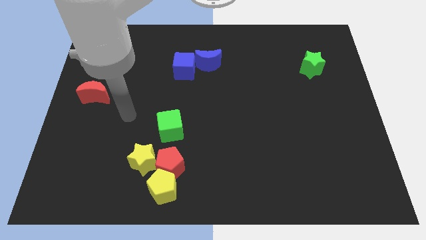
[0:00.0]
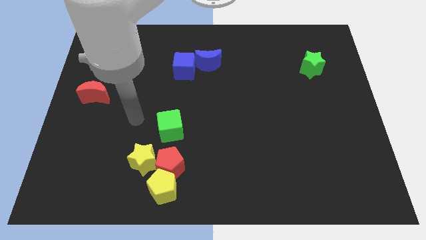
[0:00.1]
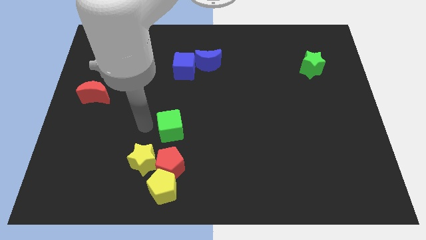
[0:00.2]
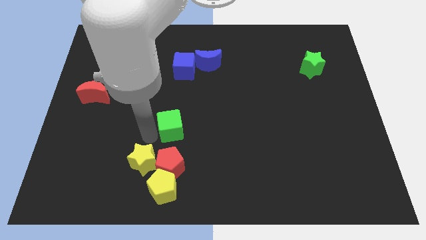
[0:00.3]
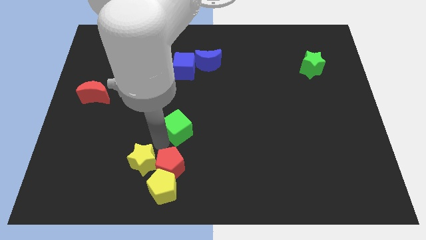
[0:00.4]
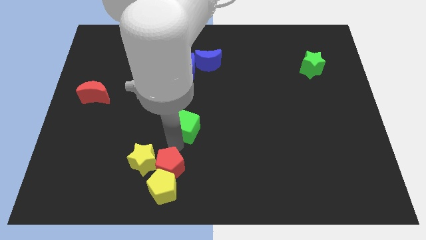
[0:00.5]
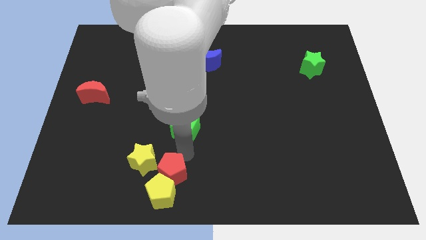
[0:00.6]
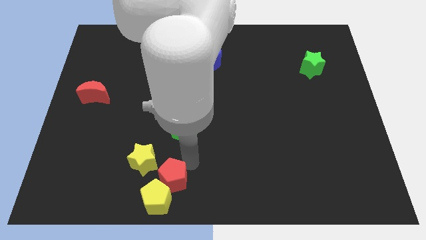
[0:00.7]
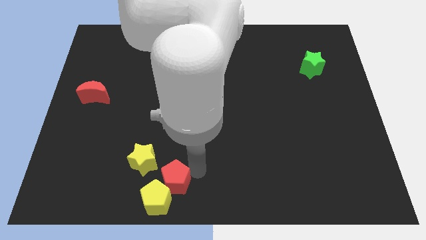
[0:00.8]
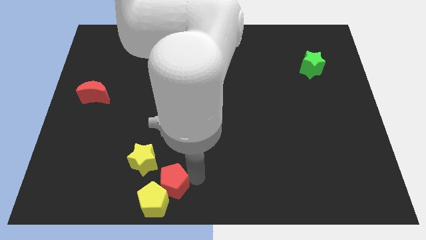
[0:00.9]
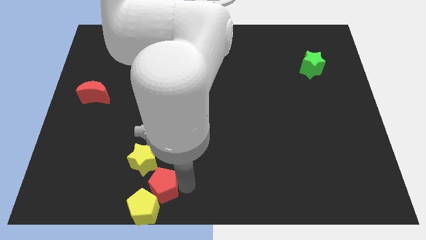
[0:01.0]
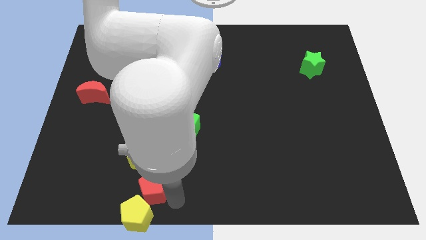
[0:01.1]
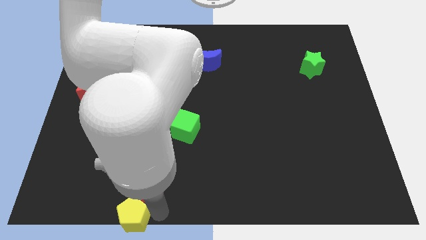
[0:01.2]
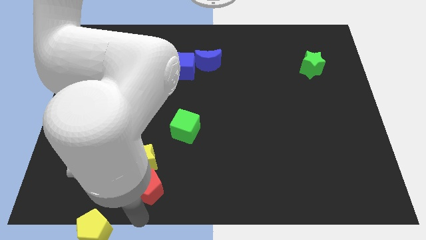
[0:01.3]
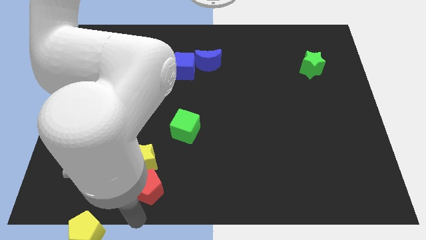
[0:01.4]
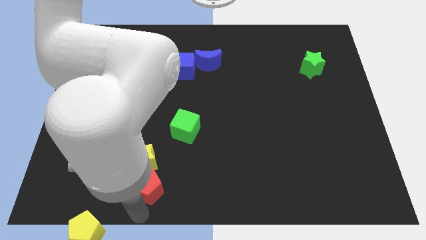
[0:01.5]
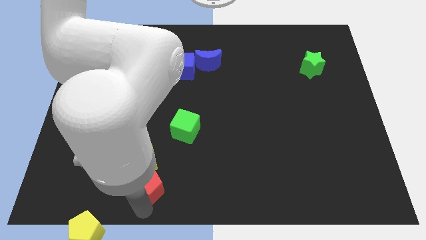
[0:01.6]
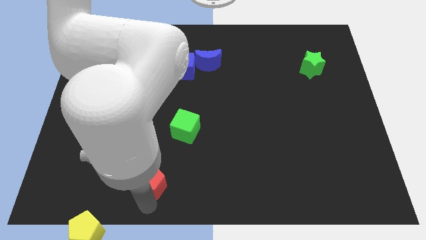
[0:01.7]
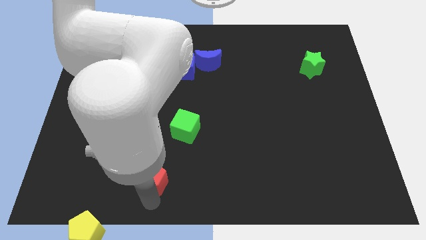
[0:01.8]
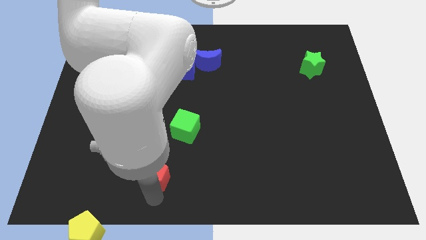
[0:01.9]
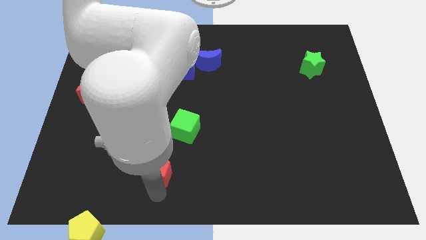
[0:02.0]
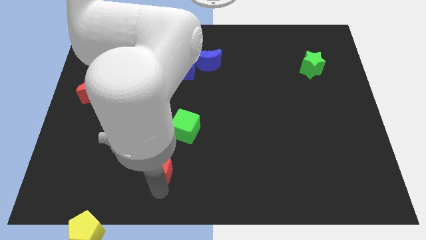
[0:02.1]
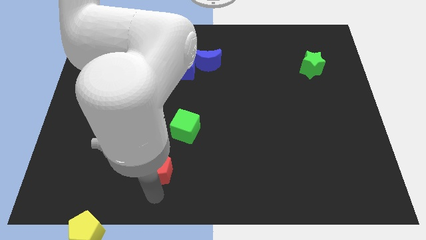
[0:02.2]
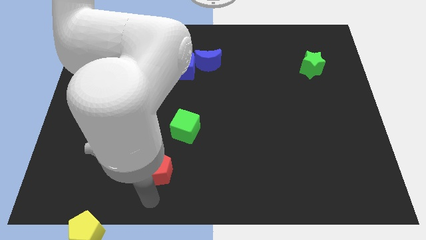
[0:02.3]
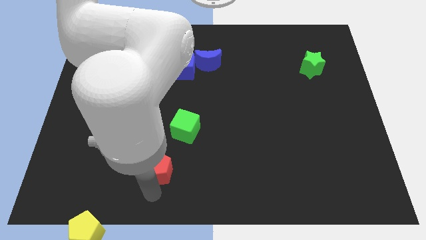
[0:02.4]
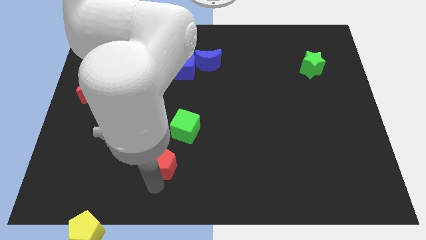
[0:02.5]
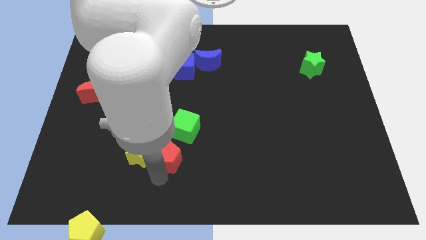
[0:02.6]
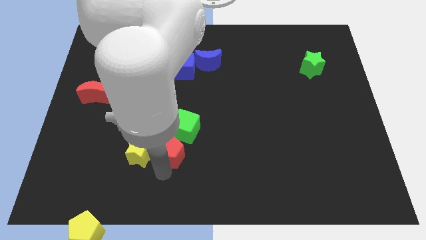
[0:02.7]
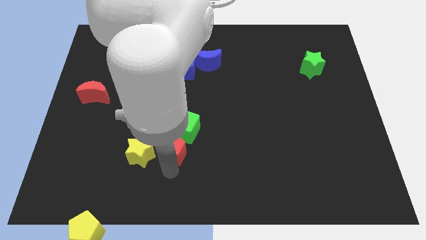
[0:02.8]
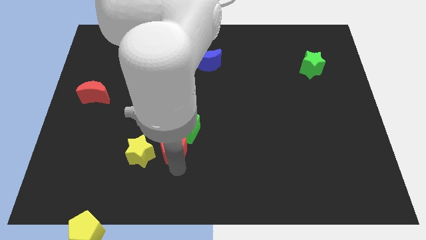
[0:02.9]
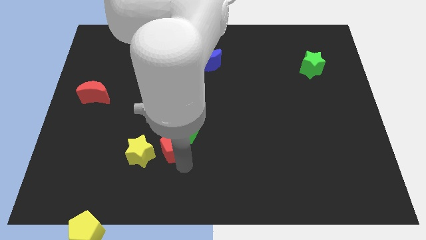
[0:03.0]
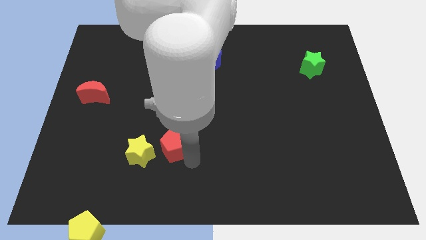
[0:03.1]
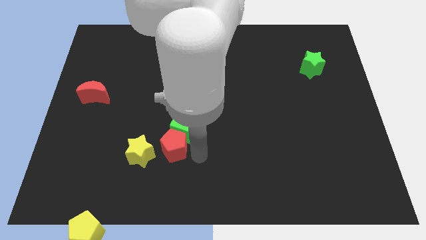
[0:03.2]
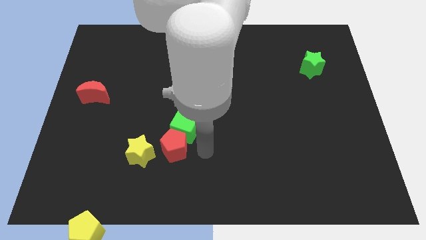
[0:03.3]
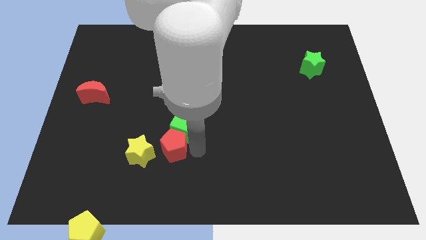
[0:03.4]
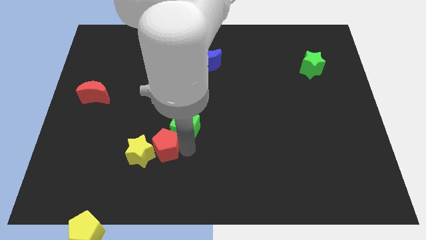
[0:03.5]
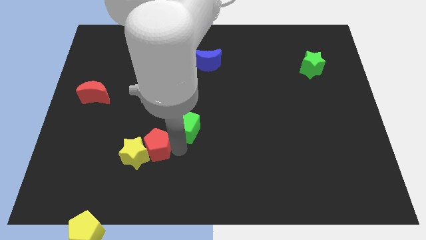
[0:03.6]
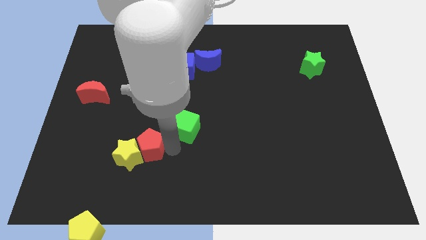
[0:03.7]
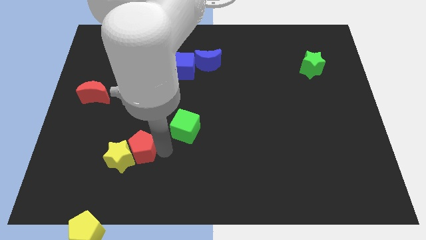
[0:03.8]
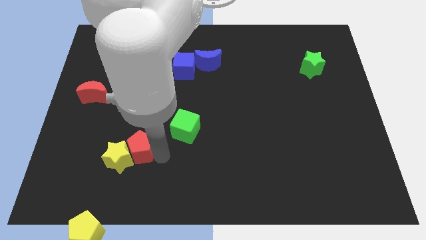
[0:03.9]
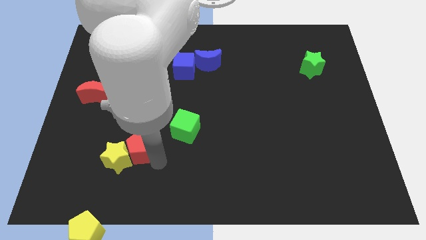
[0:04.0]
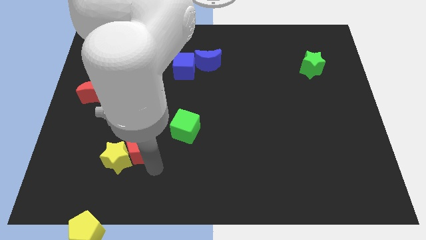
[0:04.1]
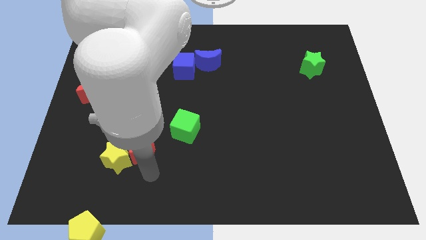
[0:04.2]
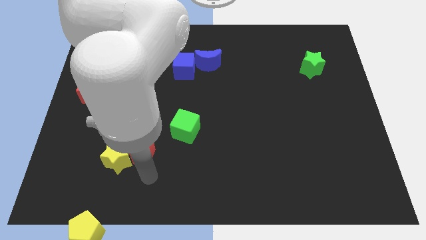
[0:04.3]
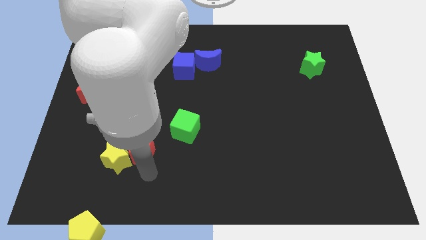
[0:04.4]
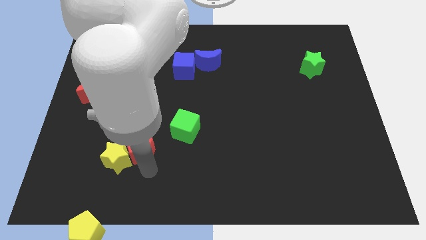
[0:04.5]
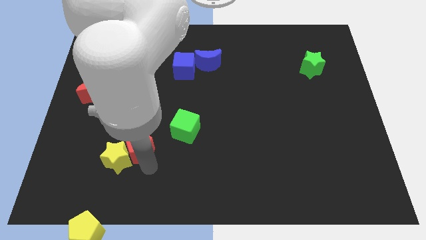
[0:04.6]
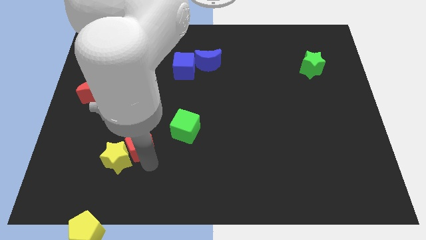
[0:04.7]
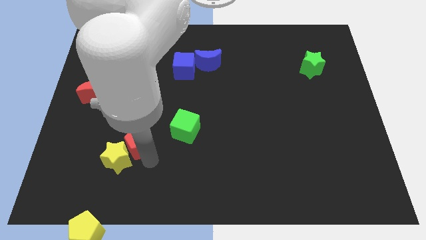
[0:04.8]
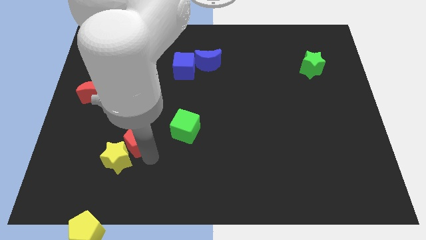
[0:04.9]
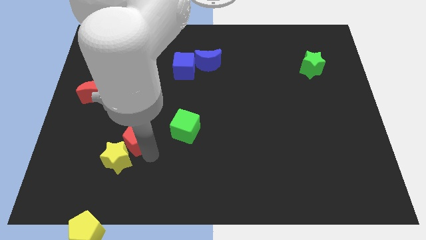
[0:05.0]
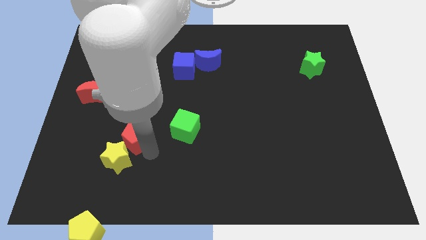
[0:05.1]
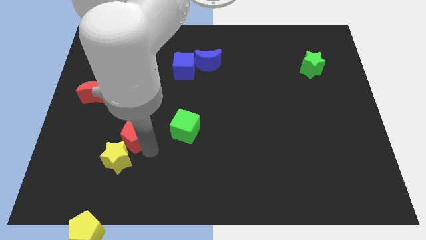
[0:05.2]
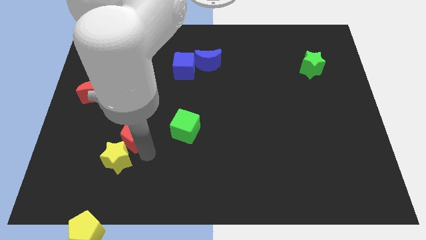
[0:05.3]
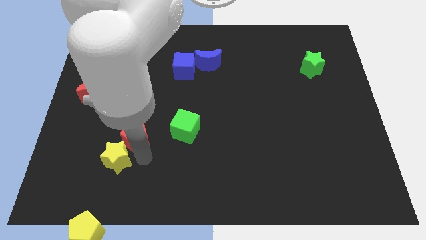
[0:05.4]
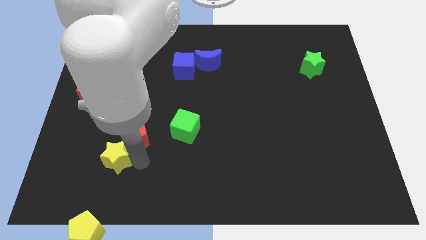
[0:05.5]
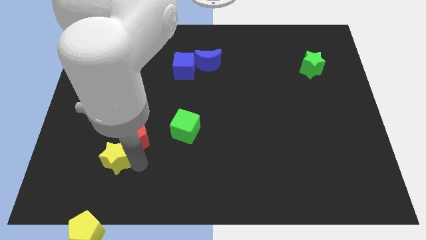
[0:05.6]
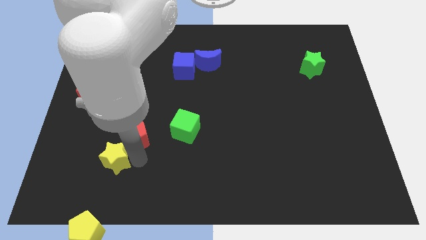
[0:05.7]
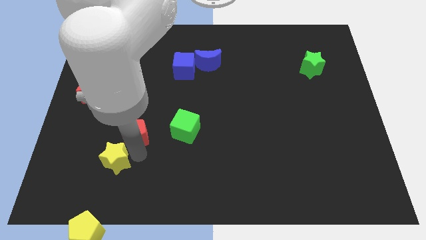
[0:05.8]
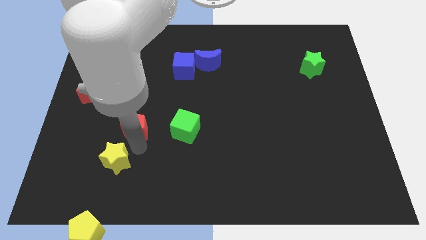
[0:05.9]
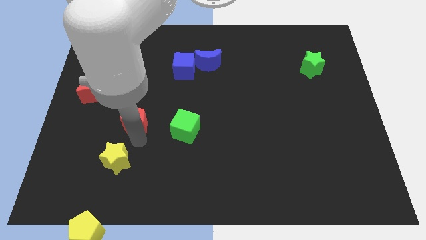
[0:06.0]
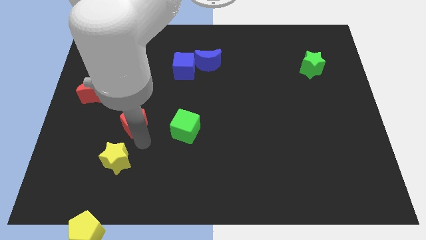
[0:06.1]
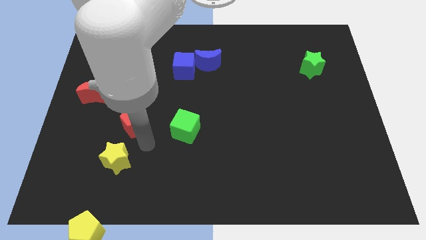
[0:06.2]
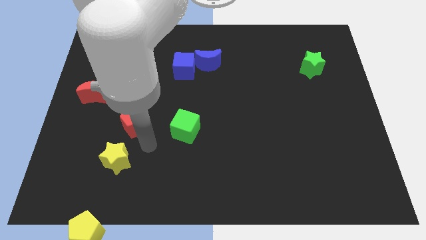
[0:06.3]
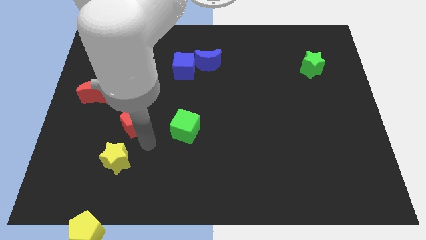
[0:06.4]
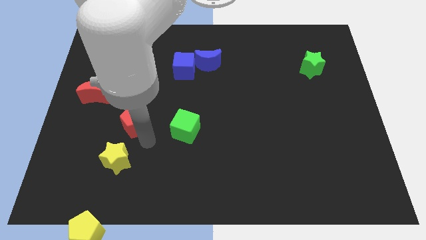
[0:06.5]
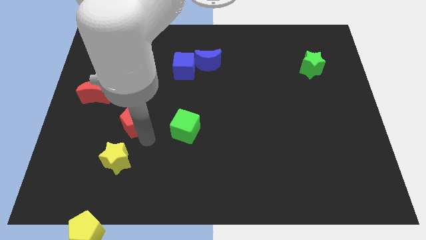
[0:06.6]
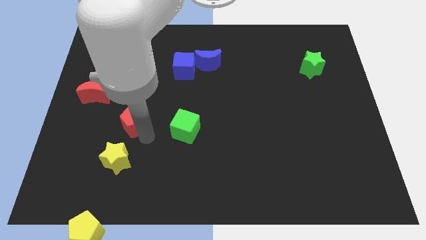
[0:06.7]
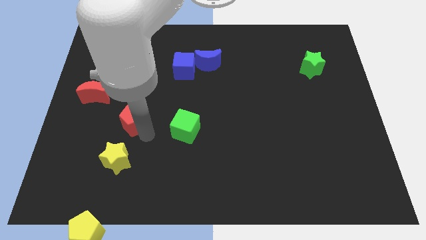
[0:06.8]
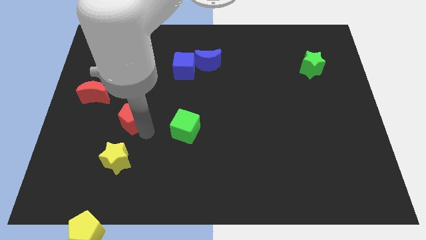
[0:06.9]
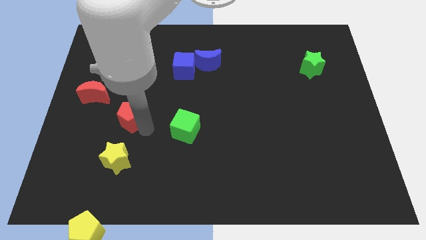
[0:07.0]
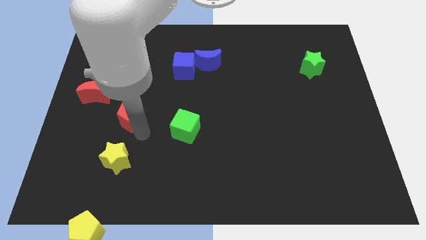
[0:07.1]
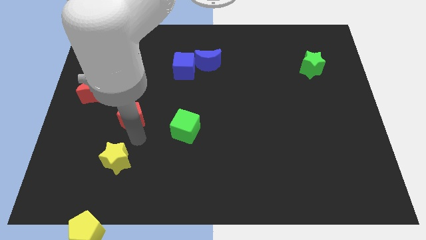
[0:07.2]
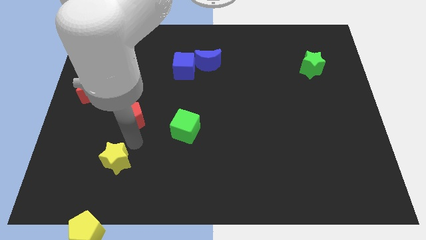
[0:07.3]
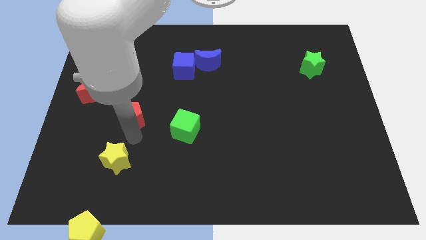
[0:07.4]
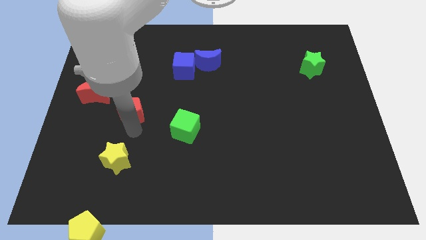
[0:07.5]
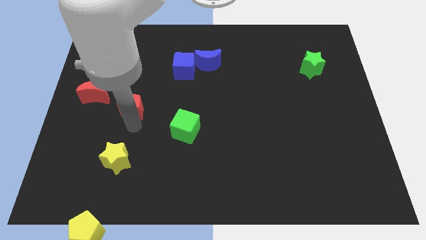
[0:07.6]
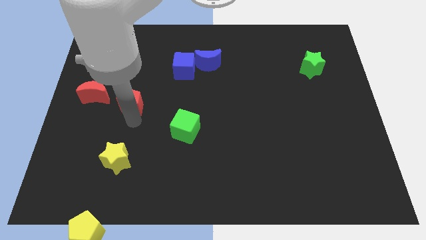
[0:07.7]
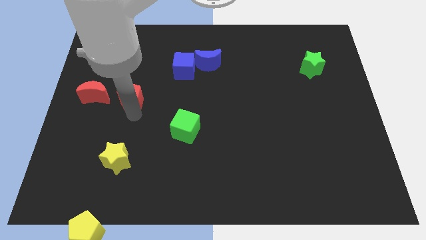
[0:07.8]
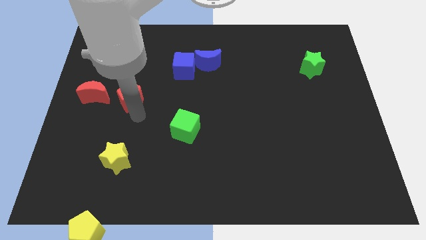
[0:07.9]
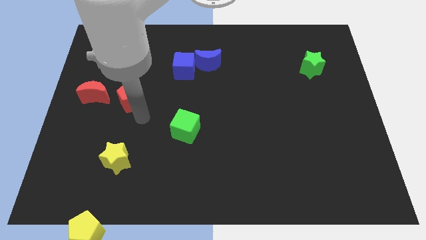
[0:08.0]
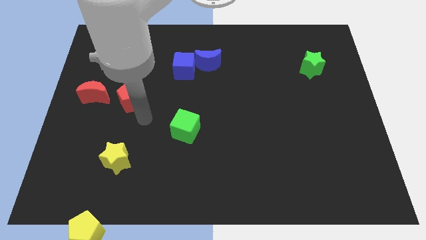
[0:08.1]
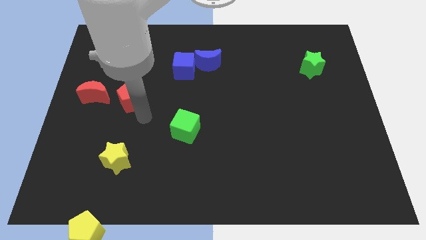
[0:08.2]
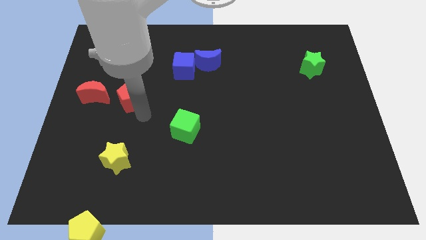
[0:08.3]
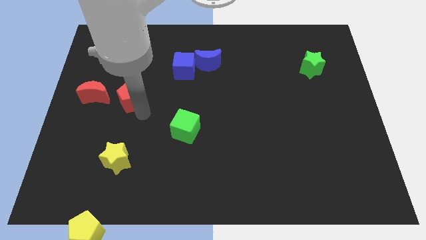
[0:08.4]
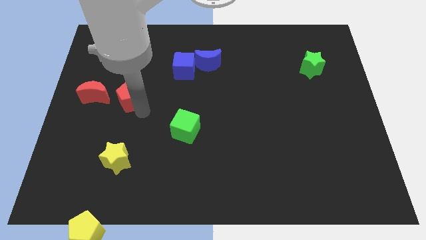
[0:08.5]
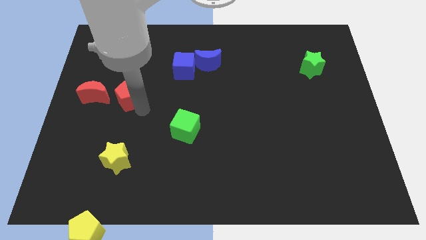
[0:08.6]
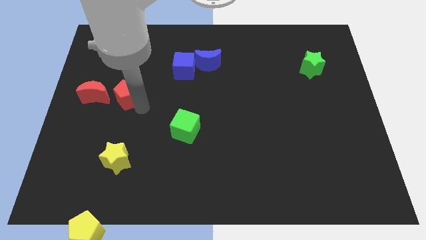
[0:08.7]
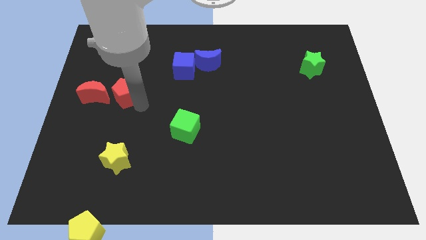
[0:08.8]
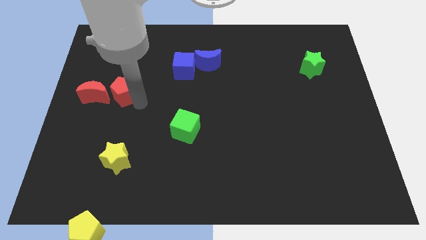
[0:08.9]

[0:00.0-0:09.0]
slide the red pentagon to the top right of the red moon
